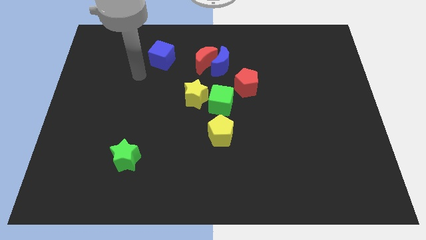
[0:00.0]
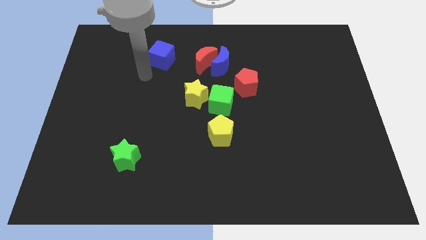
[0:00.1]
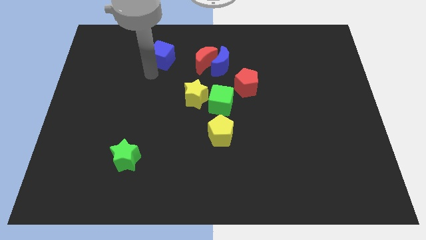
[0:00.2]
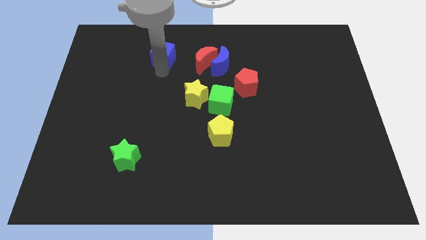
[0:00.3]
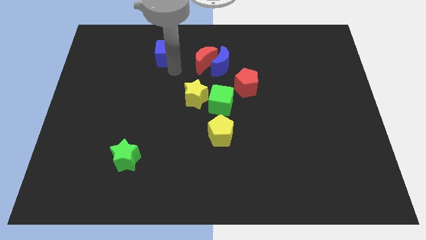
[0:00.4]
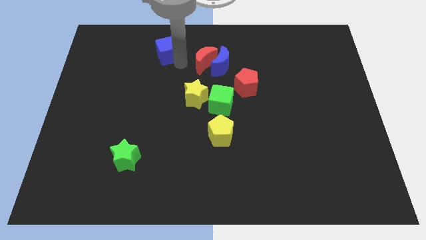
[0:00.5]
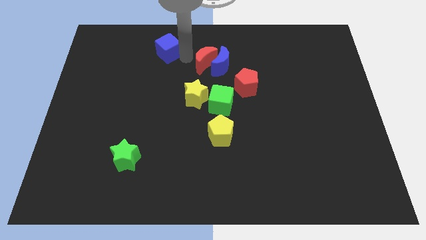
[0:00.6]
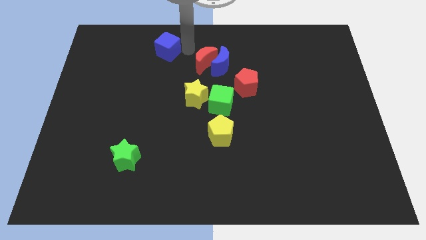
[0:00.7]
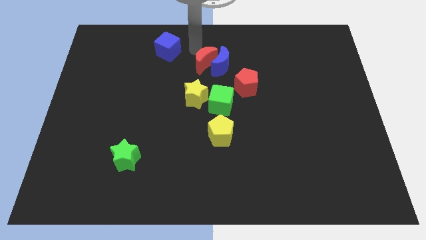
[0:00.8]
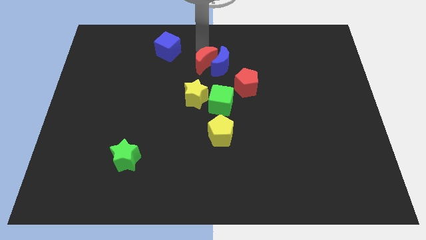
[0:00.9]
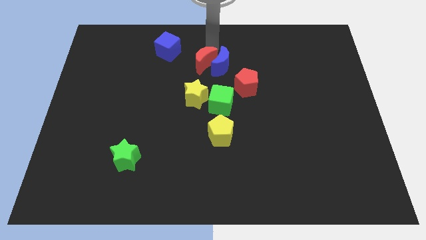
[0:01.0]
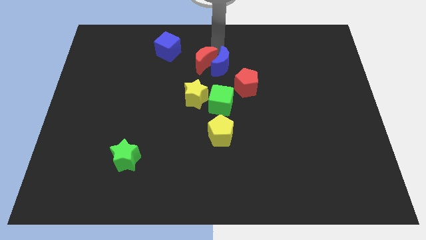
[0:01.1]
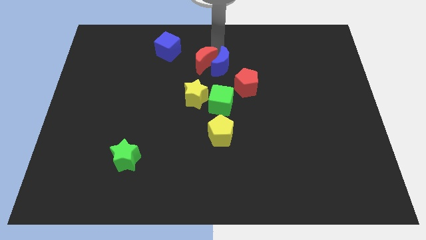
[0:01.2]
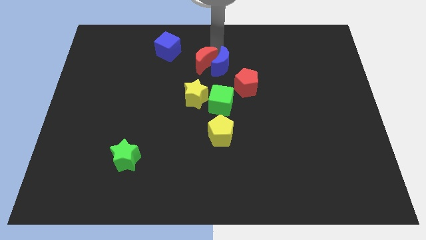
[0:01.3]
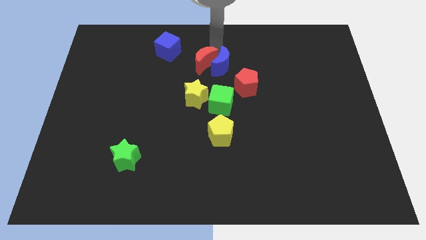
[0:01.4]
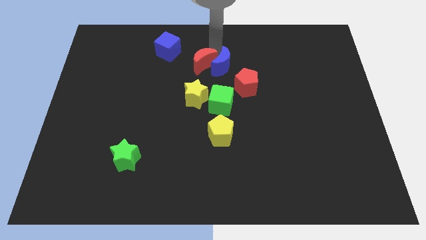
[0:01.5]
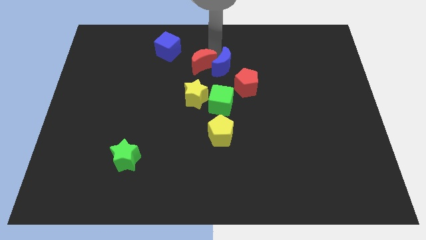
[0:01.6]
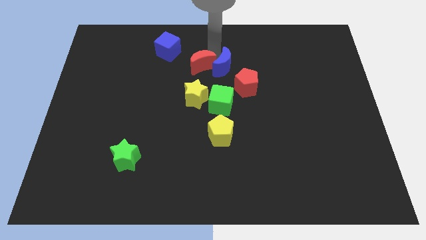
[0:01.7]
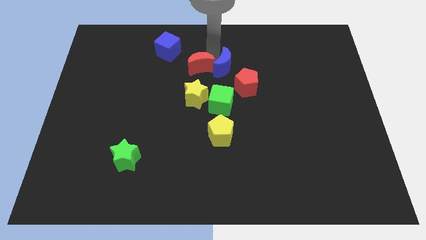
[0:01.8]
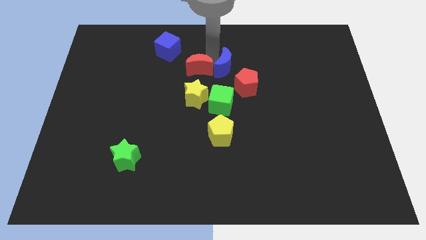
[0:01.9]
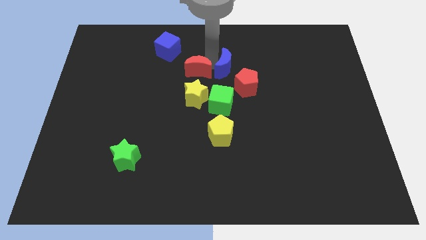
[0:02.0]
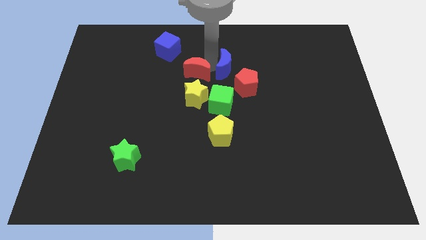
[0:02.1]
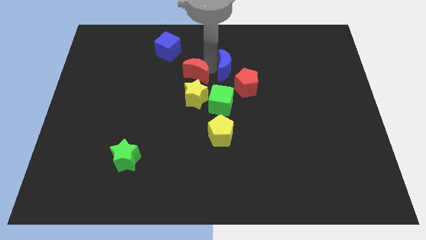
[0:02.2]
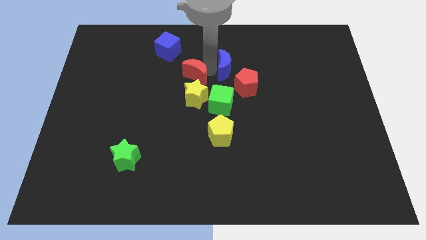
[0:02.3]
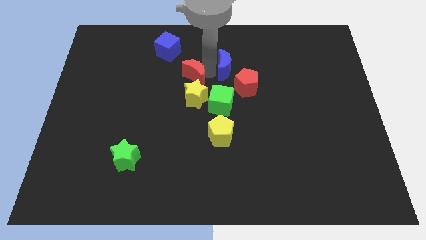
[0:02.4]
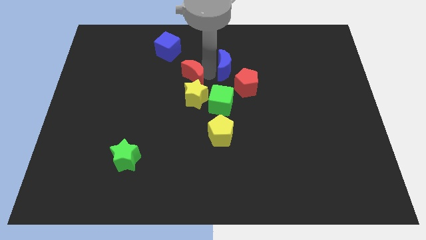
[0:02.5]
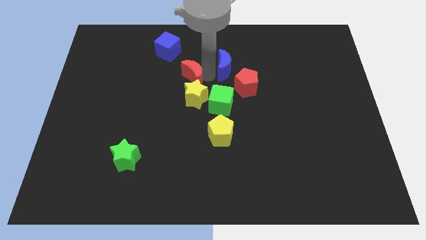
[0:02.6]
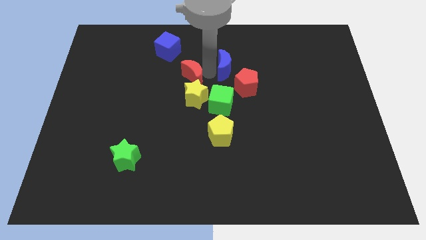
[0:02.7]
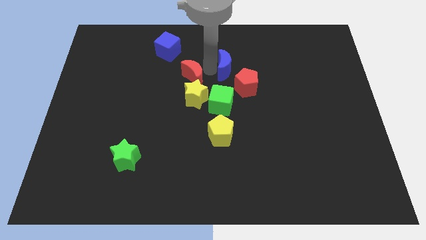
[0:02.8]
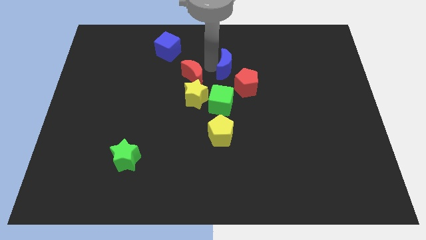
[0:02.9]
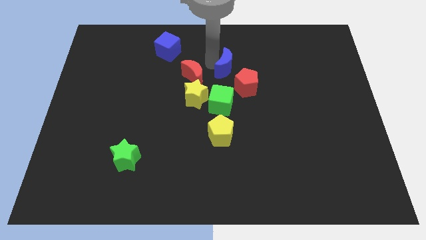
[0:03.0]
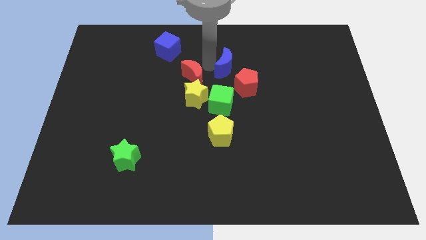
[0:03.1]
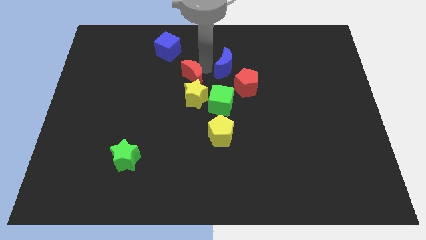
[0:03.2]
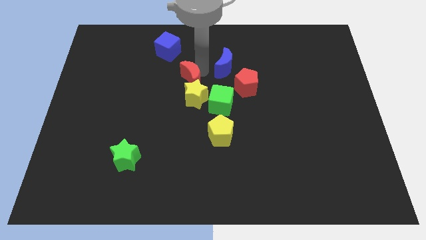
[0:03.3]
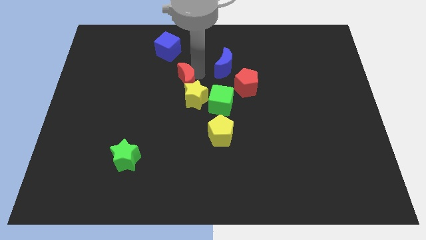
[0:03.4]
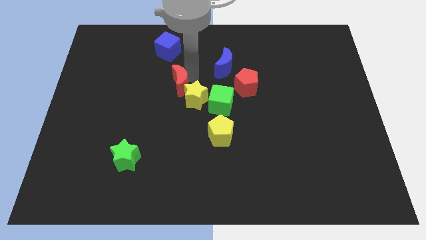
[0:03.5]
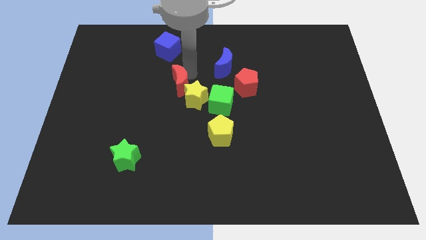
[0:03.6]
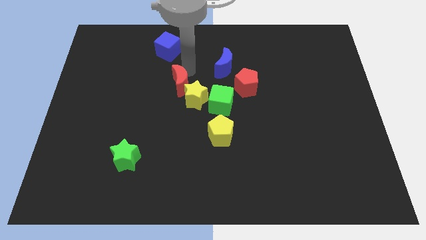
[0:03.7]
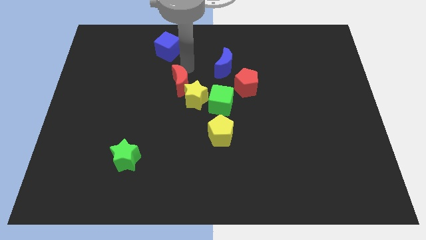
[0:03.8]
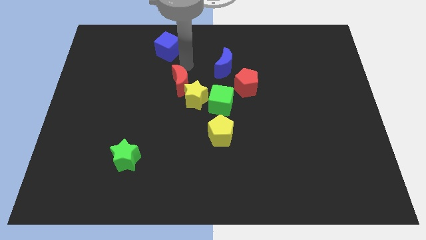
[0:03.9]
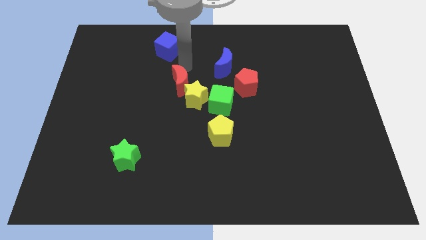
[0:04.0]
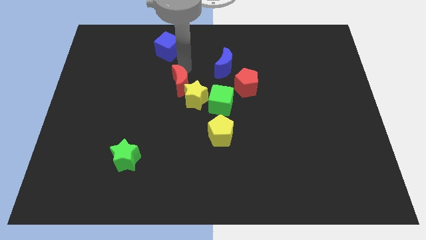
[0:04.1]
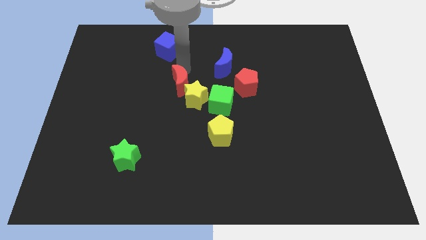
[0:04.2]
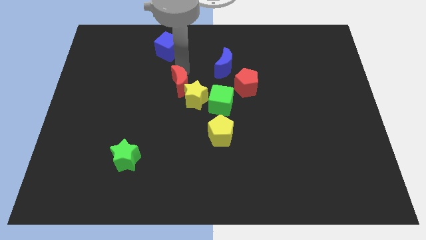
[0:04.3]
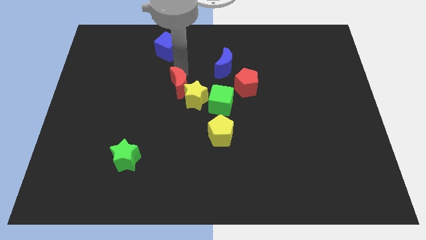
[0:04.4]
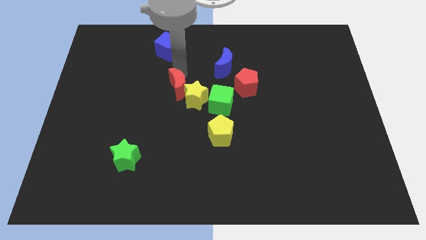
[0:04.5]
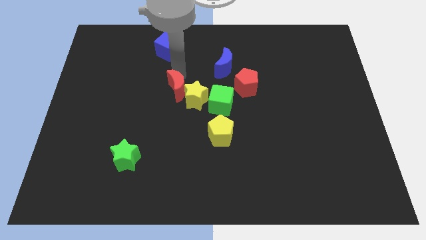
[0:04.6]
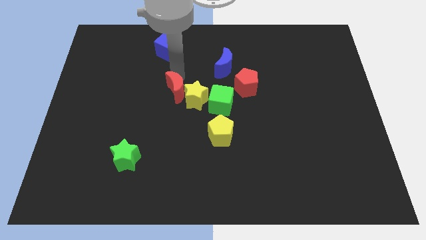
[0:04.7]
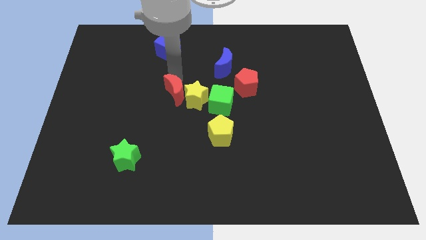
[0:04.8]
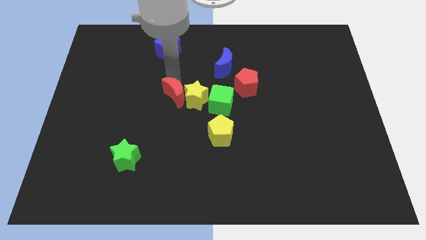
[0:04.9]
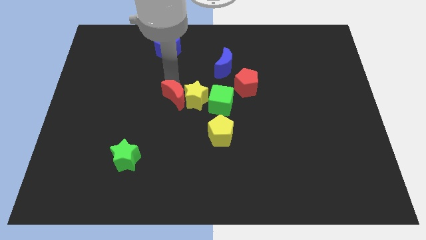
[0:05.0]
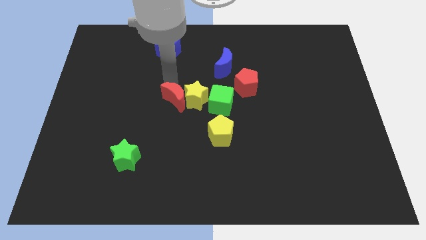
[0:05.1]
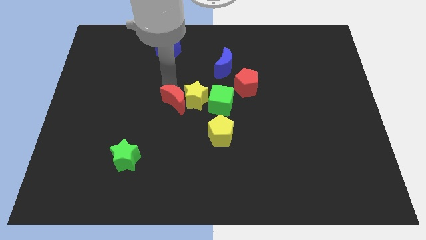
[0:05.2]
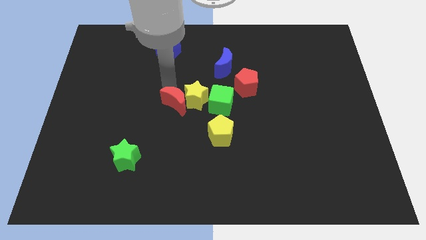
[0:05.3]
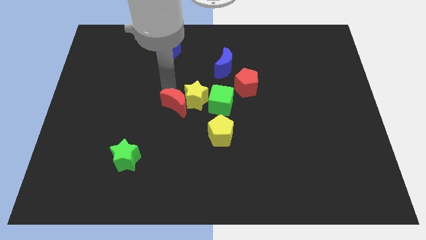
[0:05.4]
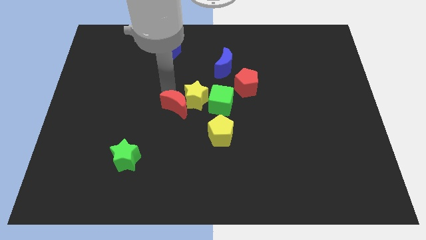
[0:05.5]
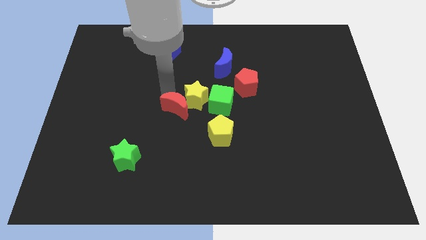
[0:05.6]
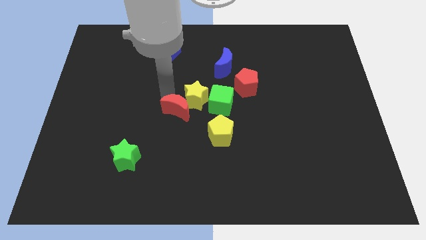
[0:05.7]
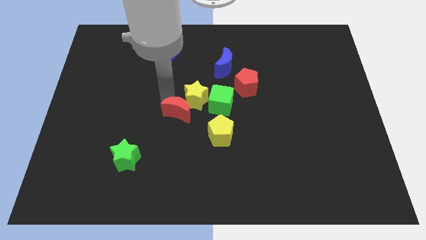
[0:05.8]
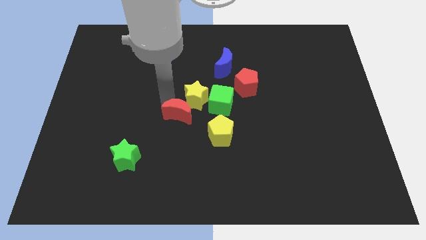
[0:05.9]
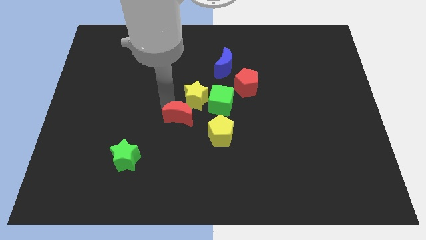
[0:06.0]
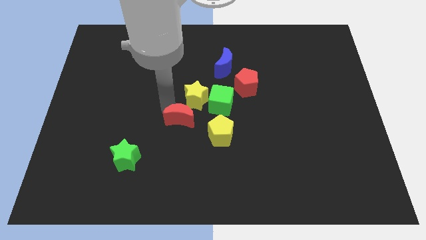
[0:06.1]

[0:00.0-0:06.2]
slide the red moon to the left of the yellow pentagon
